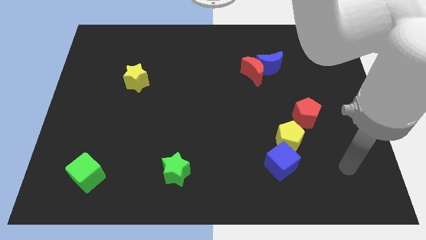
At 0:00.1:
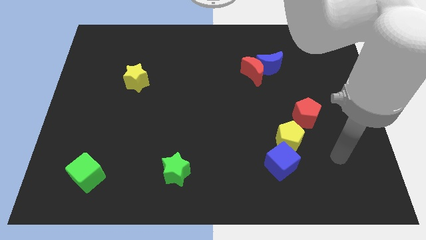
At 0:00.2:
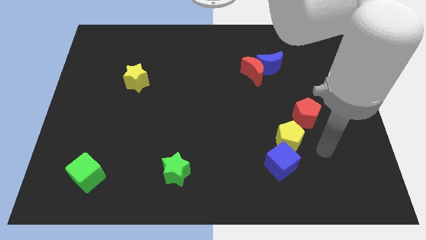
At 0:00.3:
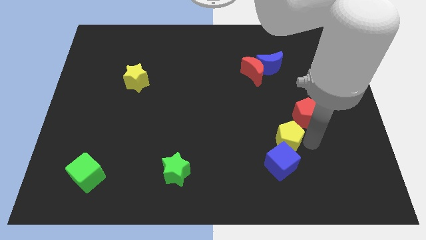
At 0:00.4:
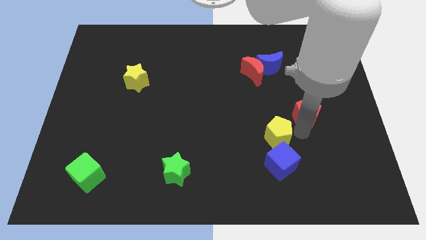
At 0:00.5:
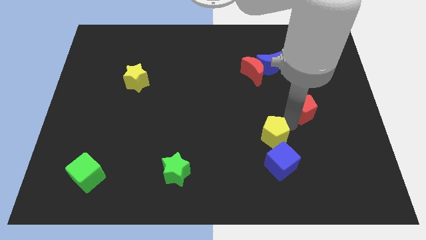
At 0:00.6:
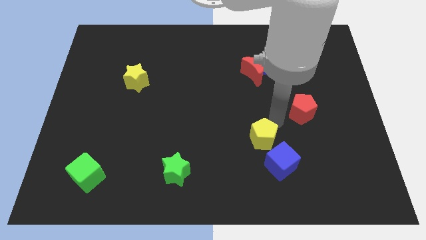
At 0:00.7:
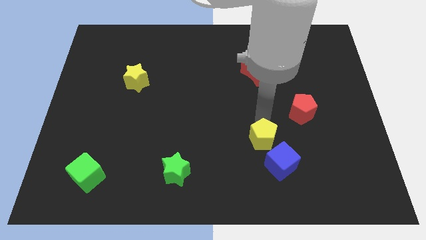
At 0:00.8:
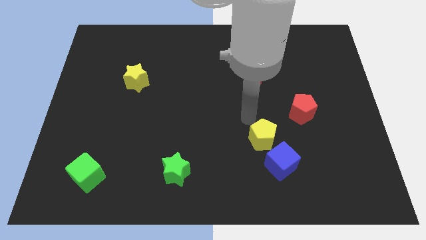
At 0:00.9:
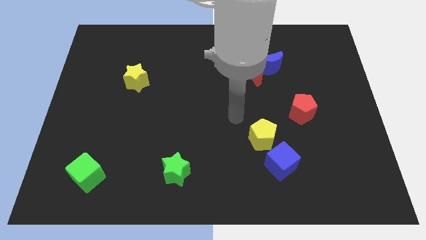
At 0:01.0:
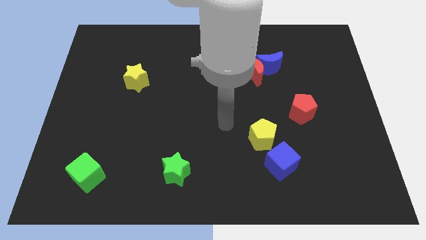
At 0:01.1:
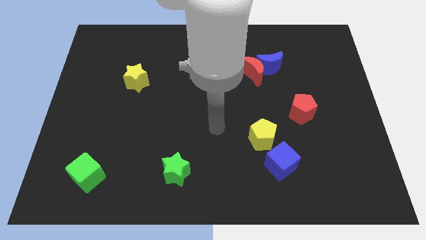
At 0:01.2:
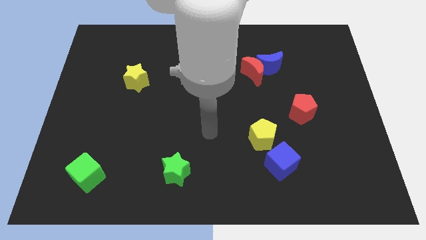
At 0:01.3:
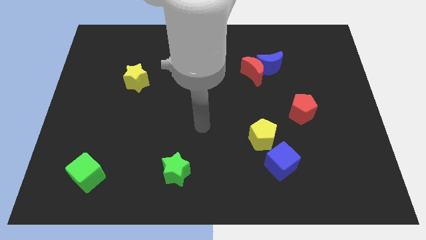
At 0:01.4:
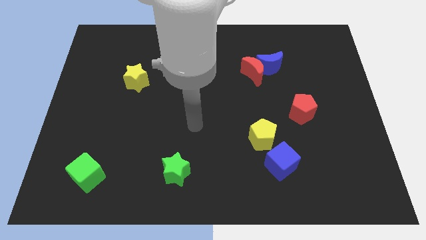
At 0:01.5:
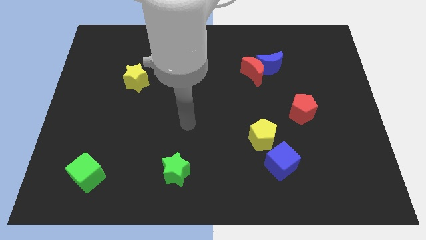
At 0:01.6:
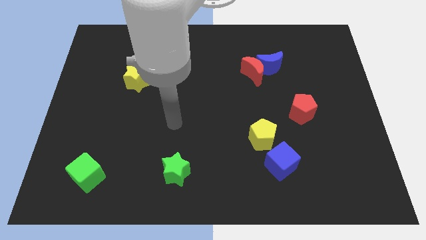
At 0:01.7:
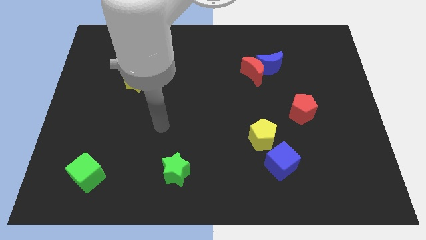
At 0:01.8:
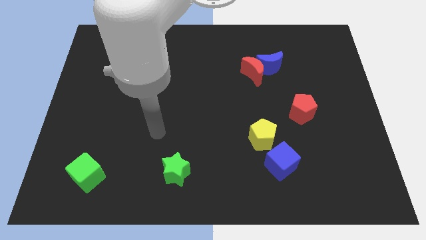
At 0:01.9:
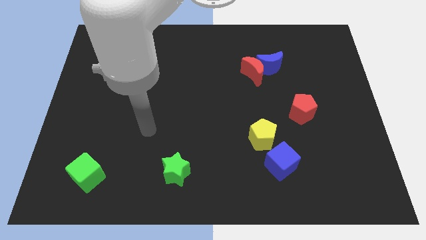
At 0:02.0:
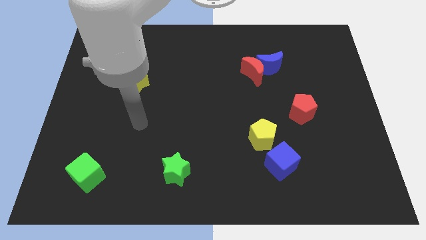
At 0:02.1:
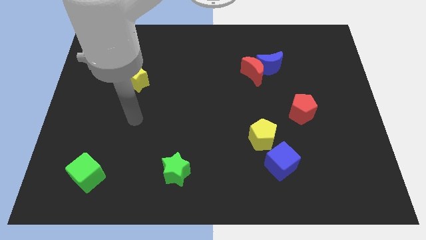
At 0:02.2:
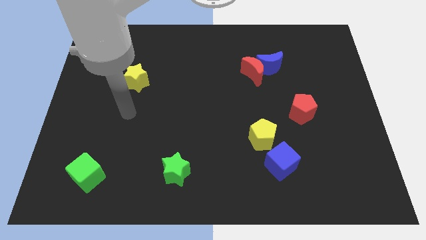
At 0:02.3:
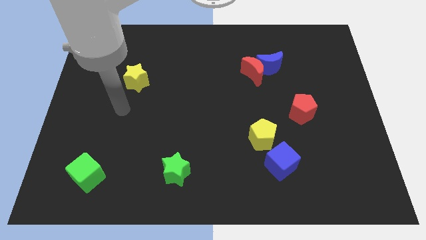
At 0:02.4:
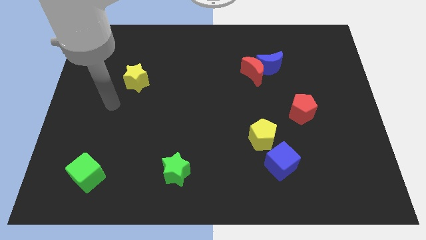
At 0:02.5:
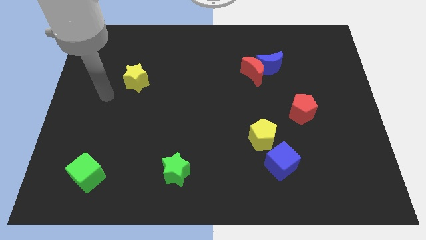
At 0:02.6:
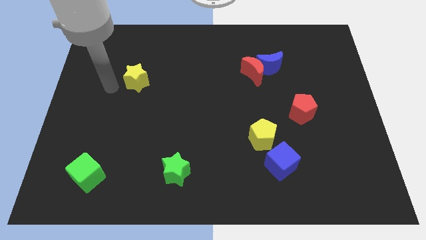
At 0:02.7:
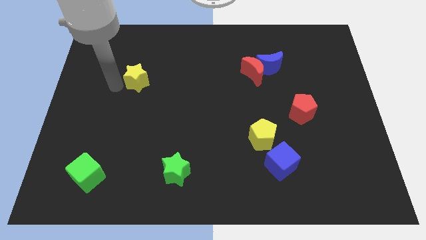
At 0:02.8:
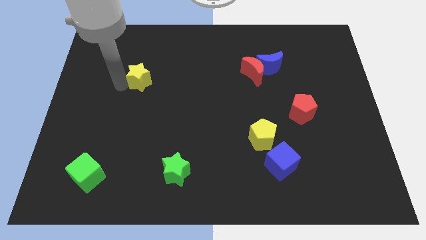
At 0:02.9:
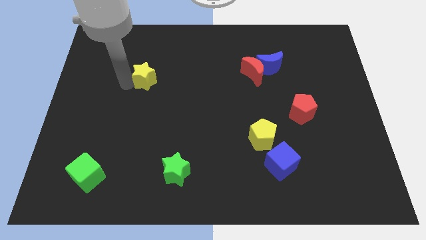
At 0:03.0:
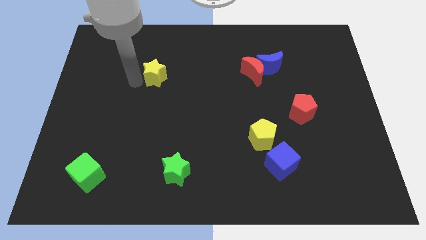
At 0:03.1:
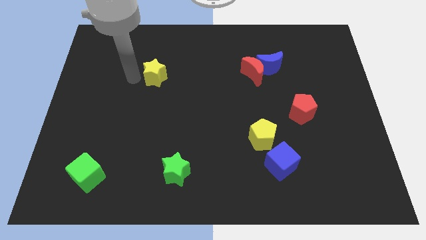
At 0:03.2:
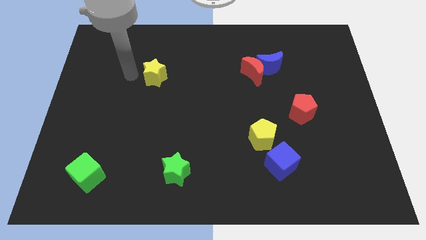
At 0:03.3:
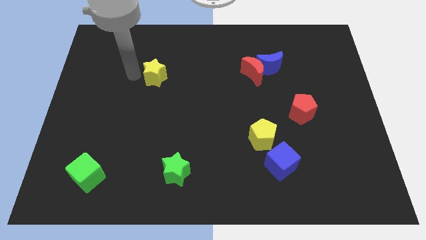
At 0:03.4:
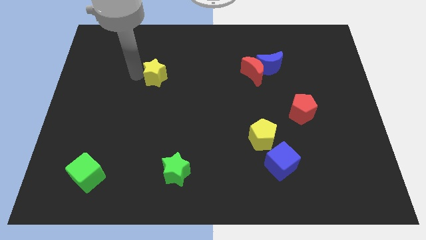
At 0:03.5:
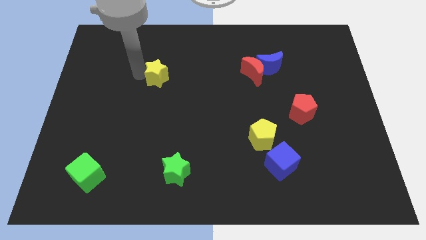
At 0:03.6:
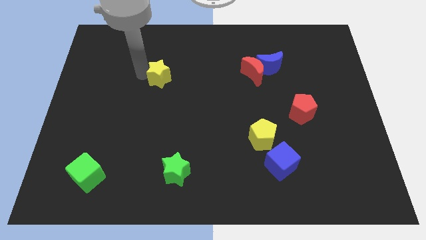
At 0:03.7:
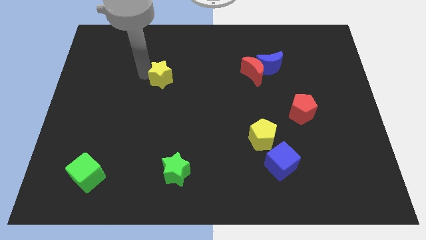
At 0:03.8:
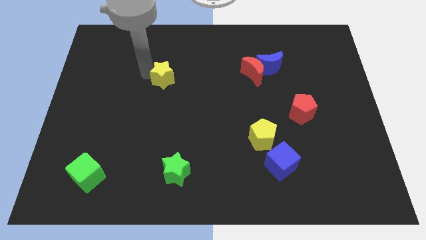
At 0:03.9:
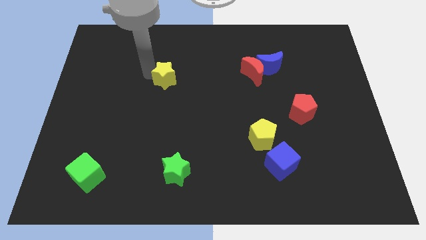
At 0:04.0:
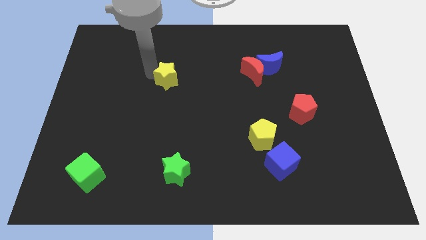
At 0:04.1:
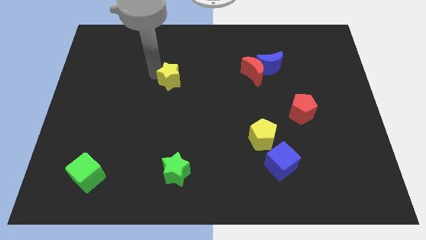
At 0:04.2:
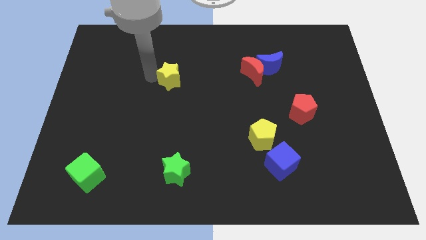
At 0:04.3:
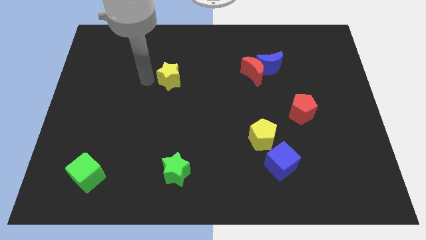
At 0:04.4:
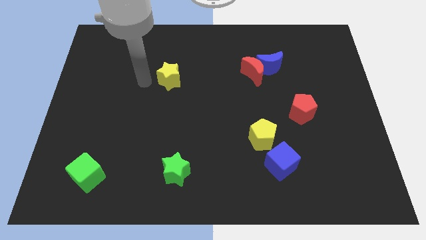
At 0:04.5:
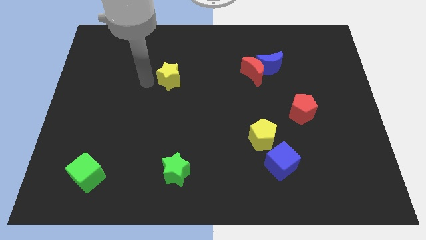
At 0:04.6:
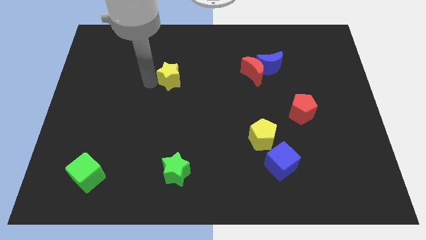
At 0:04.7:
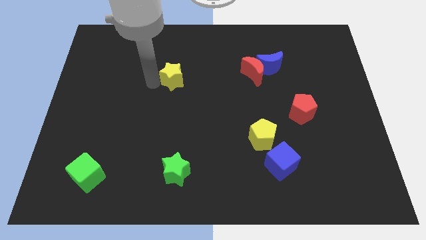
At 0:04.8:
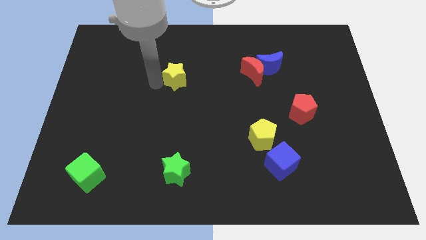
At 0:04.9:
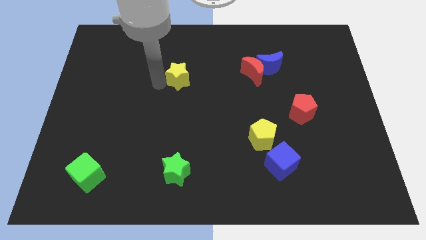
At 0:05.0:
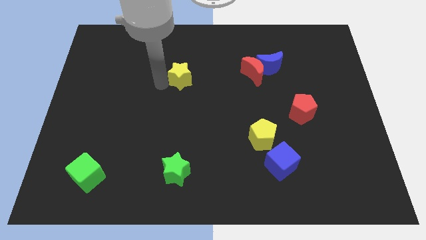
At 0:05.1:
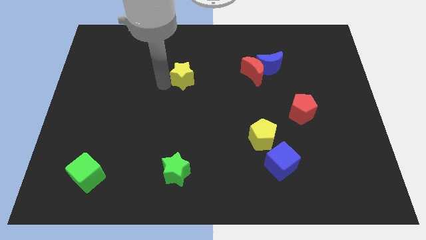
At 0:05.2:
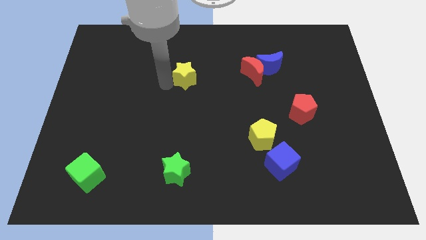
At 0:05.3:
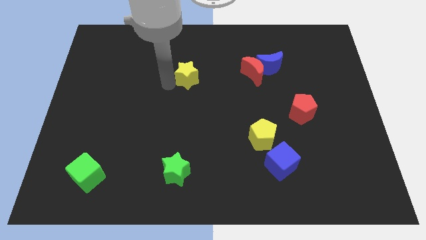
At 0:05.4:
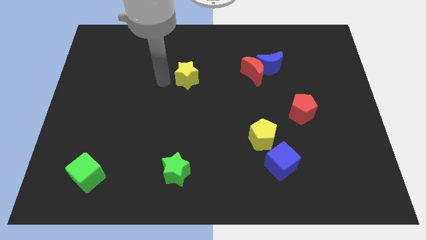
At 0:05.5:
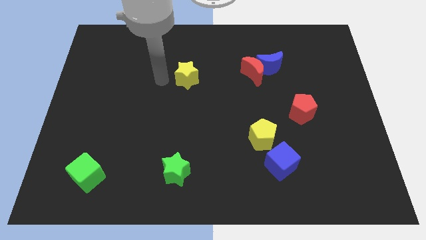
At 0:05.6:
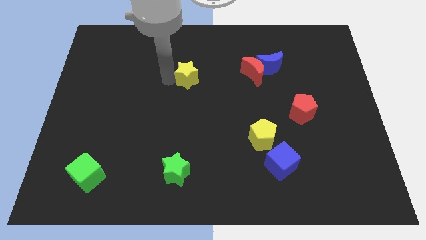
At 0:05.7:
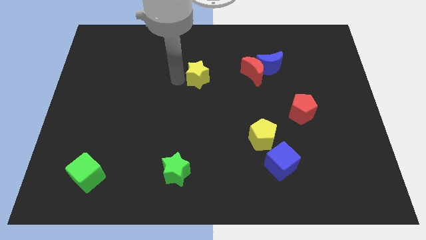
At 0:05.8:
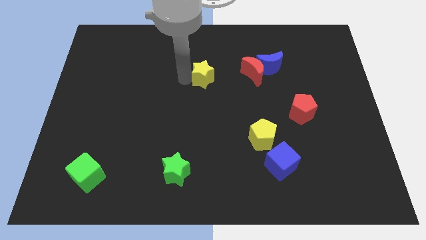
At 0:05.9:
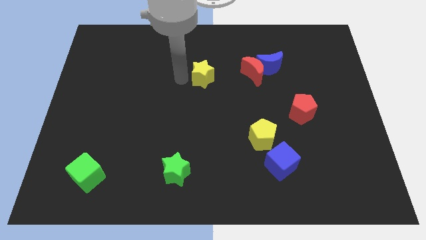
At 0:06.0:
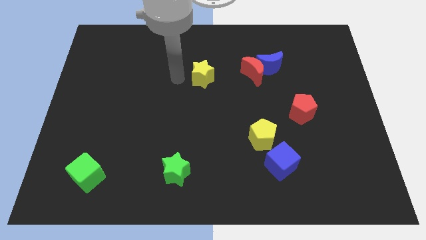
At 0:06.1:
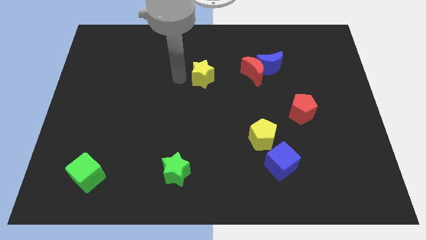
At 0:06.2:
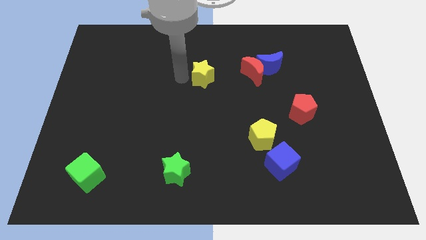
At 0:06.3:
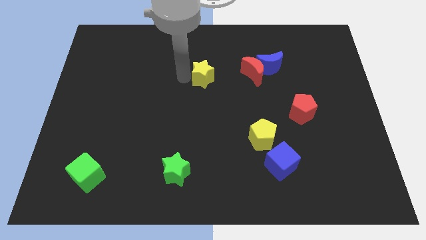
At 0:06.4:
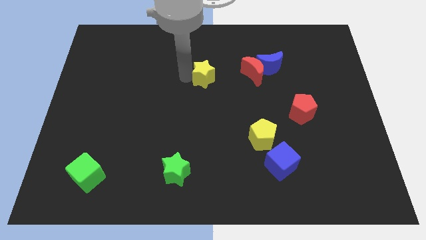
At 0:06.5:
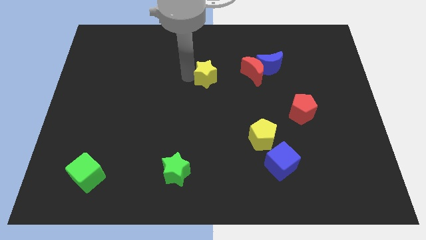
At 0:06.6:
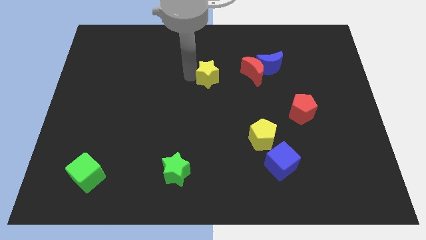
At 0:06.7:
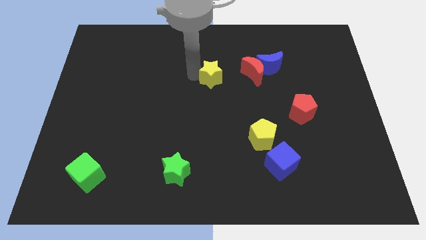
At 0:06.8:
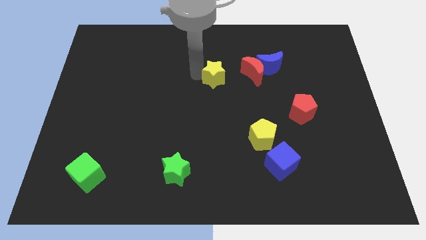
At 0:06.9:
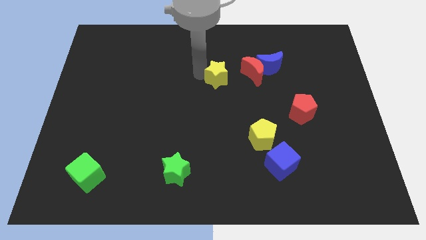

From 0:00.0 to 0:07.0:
move the yellow star to the right

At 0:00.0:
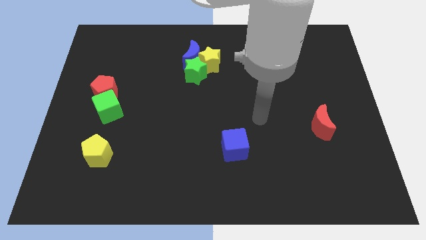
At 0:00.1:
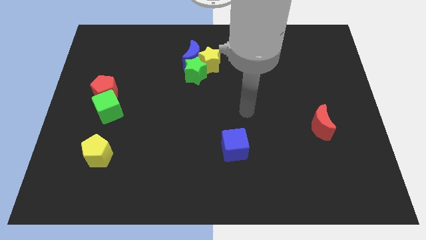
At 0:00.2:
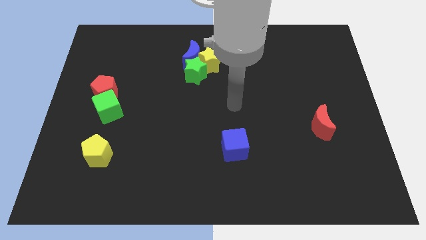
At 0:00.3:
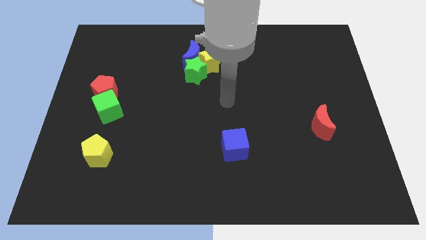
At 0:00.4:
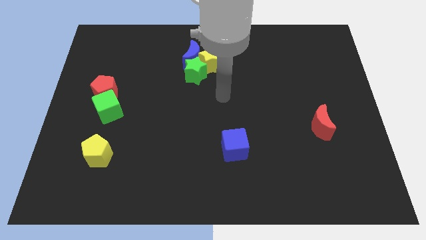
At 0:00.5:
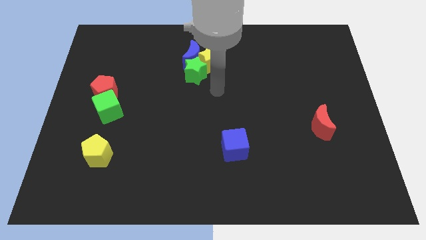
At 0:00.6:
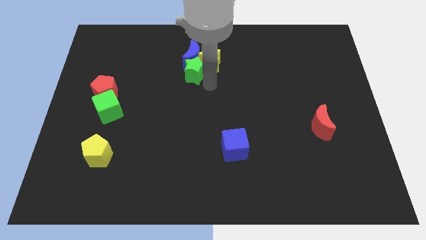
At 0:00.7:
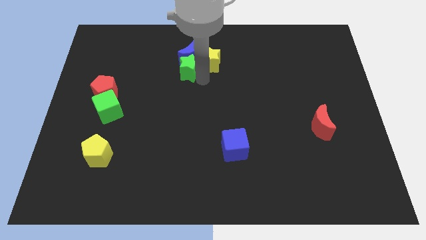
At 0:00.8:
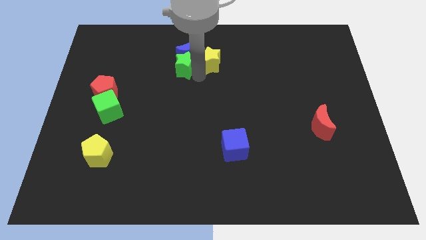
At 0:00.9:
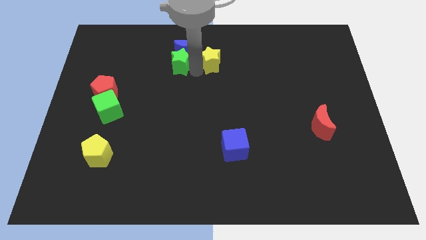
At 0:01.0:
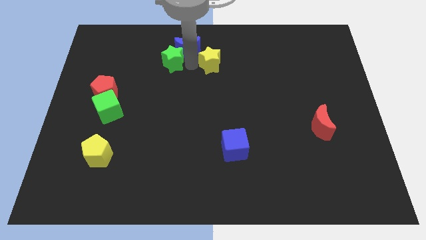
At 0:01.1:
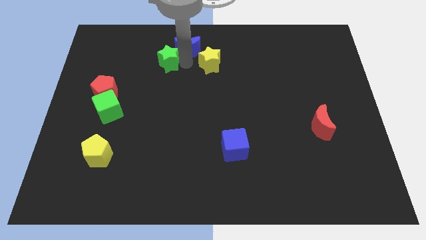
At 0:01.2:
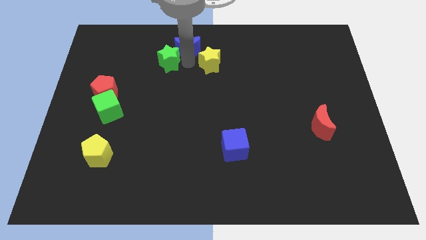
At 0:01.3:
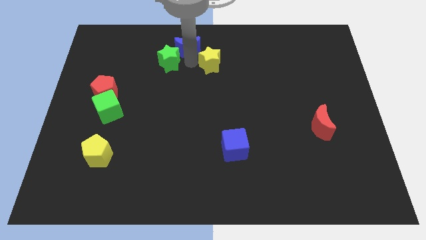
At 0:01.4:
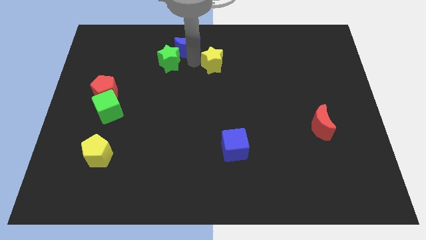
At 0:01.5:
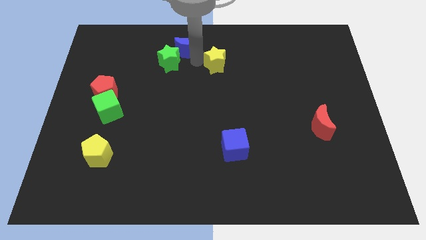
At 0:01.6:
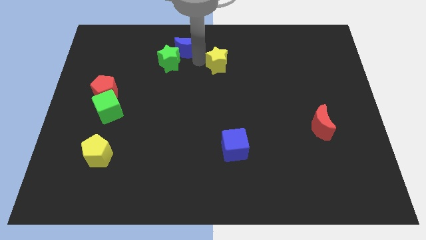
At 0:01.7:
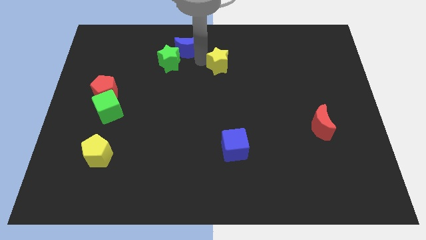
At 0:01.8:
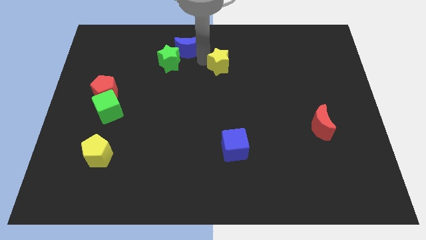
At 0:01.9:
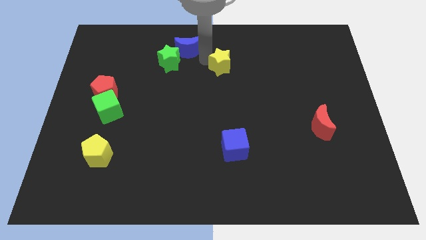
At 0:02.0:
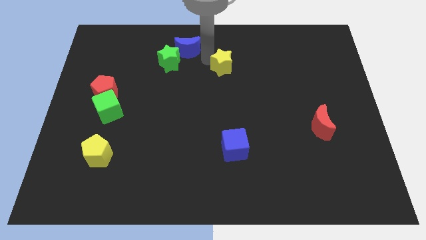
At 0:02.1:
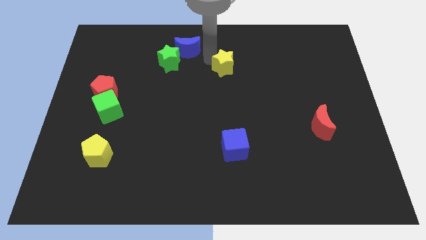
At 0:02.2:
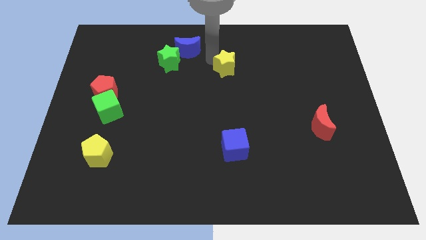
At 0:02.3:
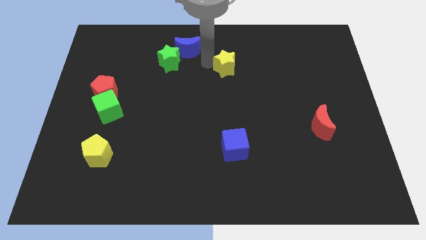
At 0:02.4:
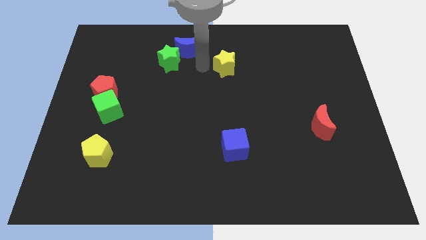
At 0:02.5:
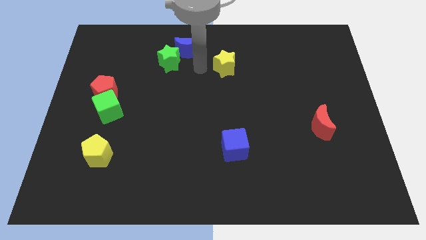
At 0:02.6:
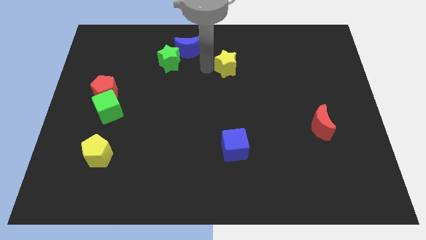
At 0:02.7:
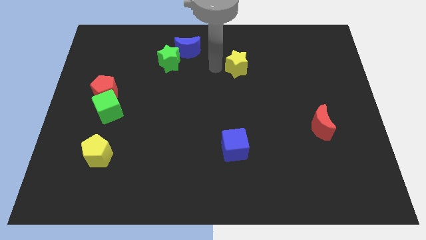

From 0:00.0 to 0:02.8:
slightly push the yellow star to the right
